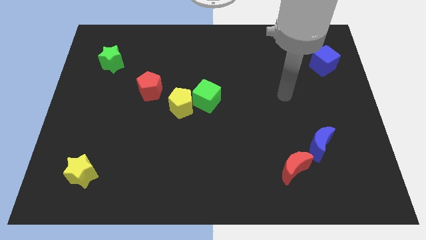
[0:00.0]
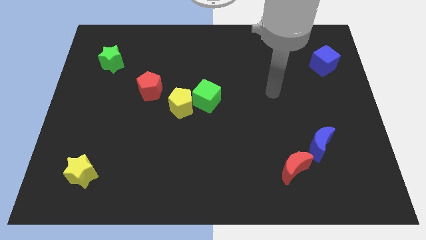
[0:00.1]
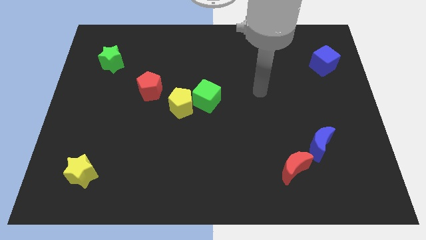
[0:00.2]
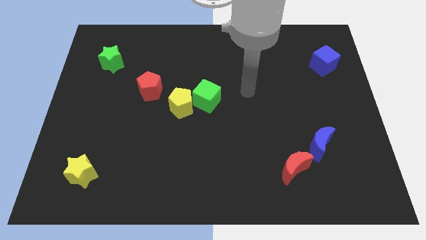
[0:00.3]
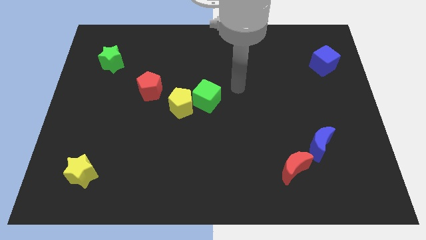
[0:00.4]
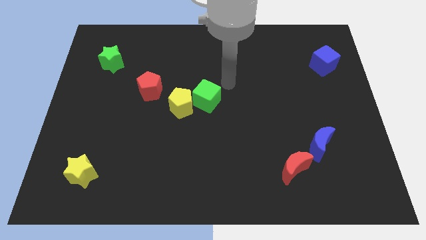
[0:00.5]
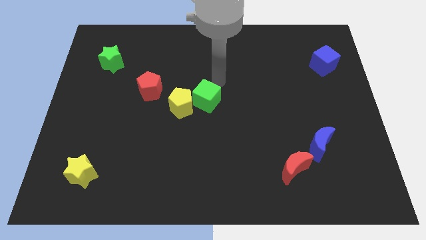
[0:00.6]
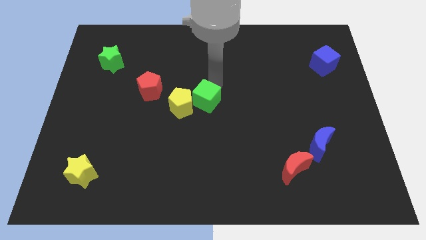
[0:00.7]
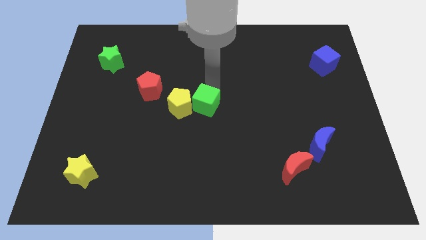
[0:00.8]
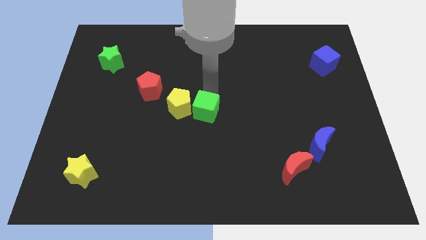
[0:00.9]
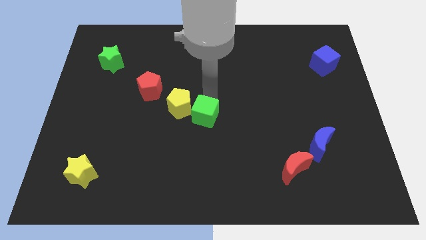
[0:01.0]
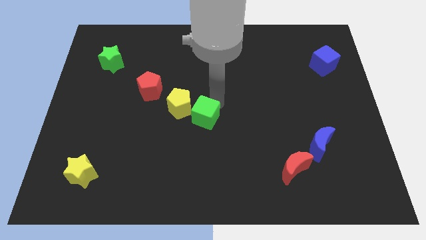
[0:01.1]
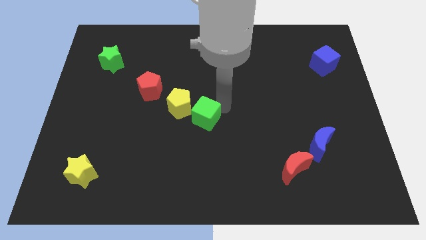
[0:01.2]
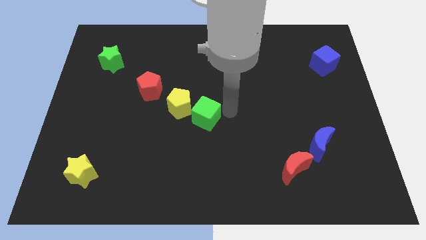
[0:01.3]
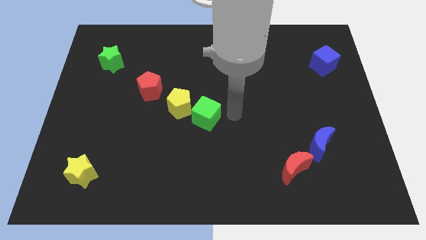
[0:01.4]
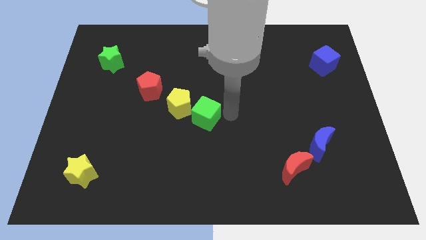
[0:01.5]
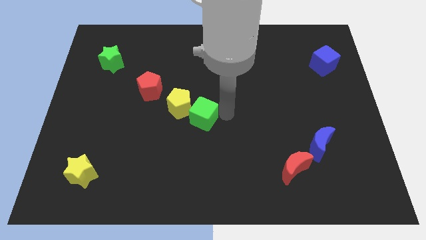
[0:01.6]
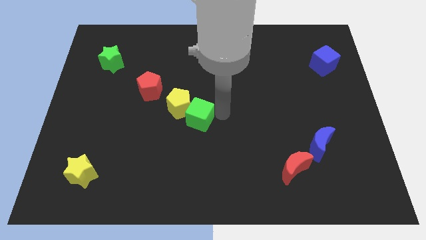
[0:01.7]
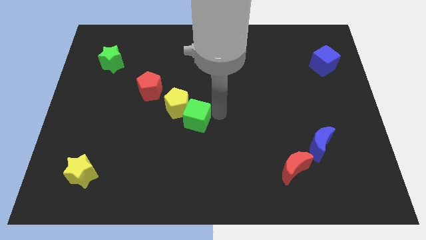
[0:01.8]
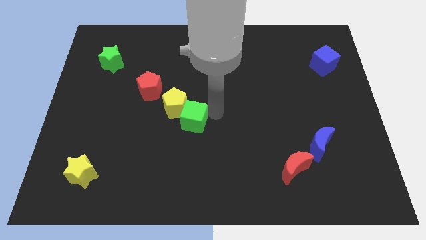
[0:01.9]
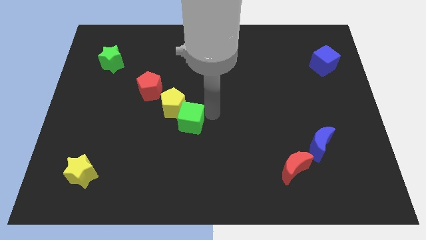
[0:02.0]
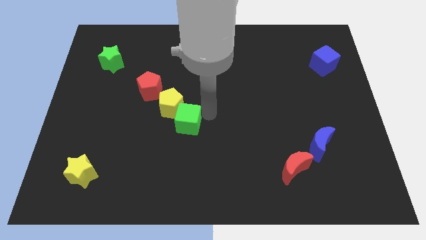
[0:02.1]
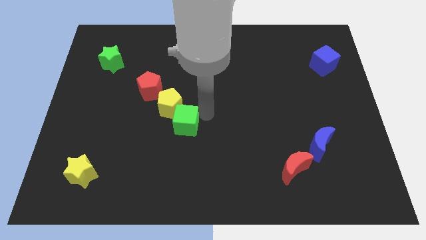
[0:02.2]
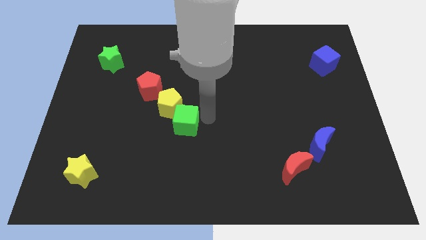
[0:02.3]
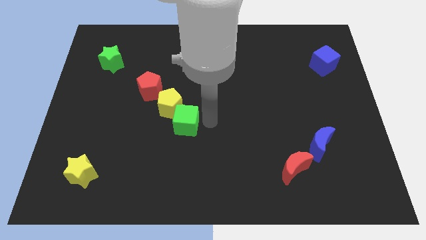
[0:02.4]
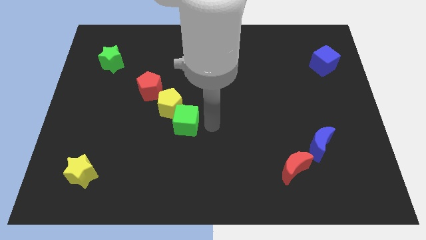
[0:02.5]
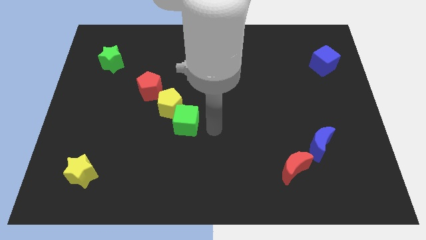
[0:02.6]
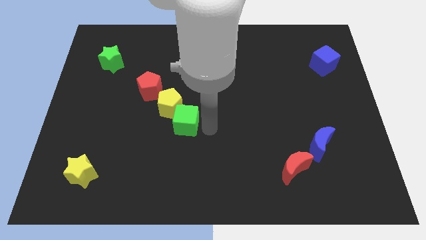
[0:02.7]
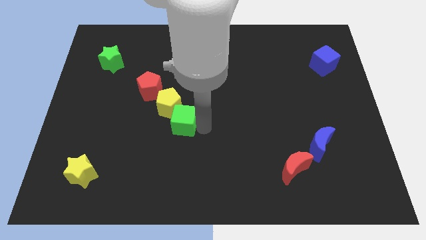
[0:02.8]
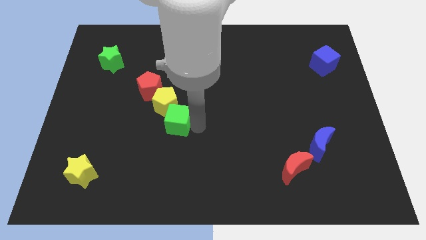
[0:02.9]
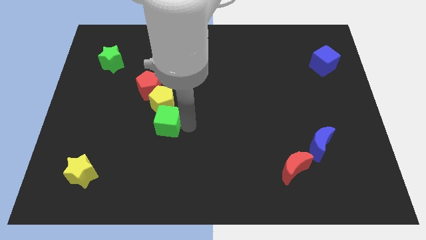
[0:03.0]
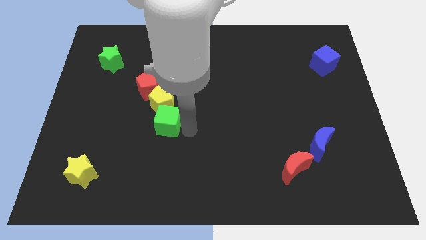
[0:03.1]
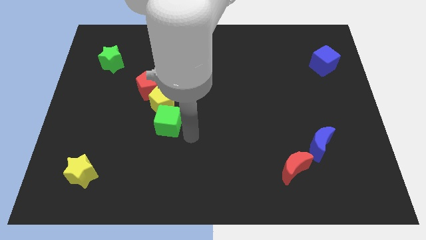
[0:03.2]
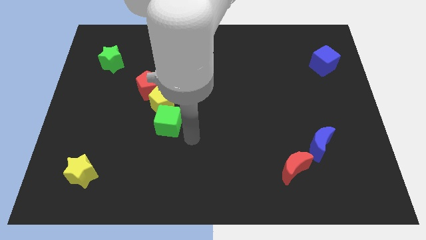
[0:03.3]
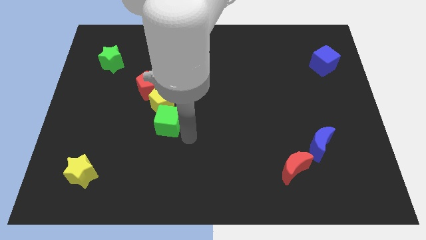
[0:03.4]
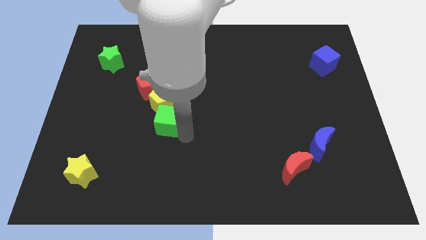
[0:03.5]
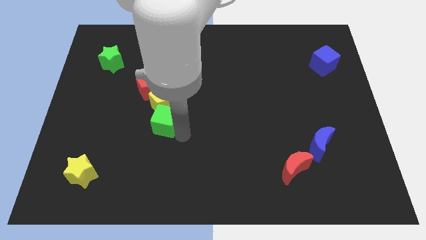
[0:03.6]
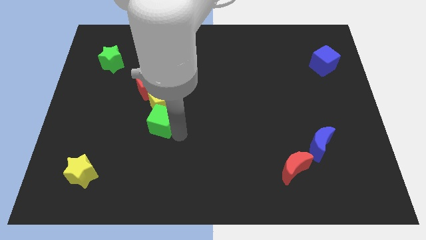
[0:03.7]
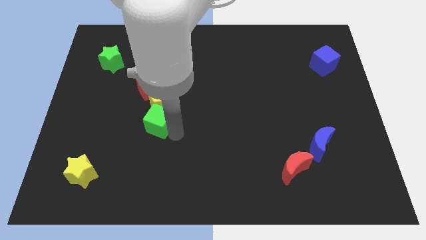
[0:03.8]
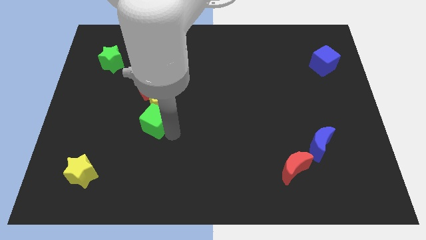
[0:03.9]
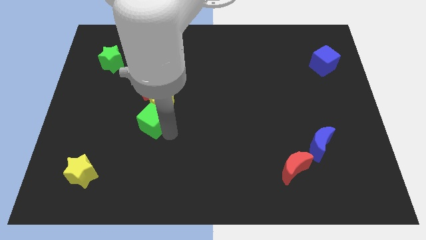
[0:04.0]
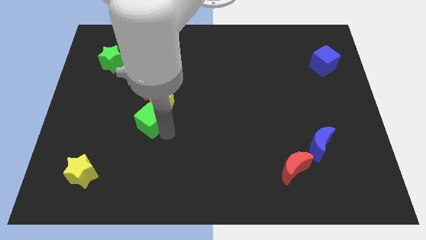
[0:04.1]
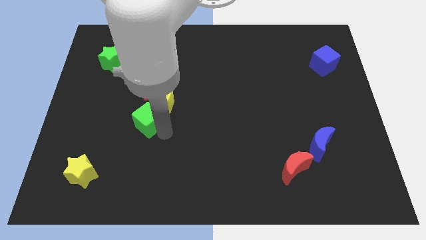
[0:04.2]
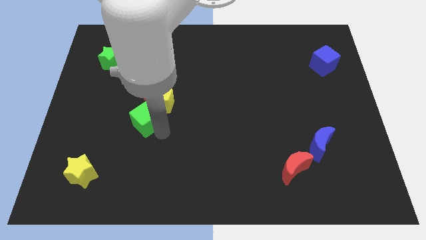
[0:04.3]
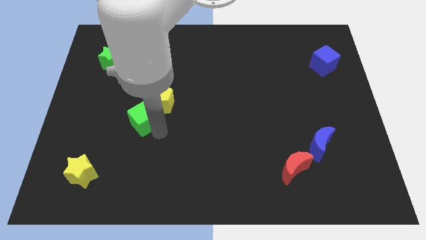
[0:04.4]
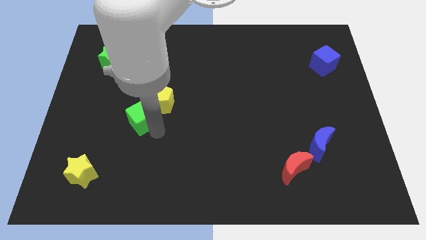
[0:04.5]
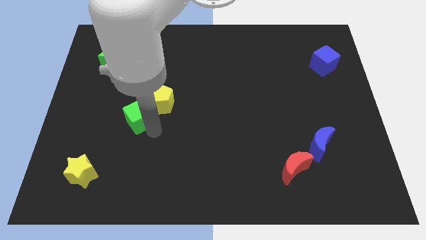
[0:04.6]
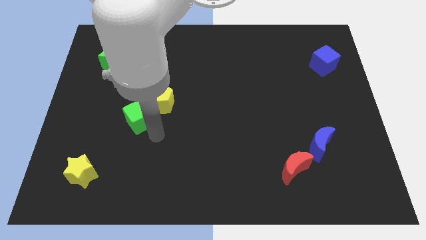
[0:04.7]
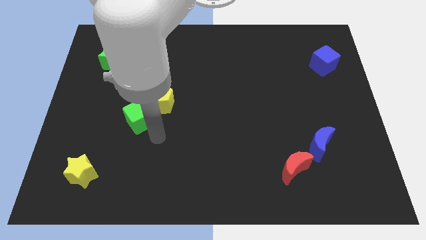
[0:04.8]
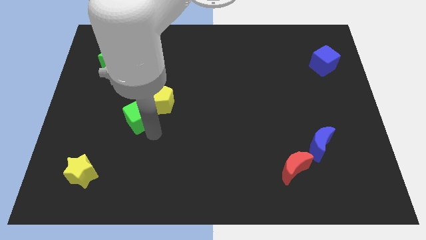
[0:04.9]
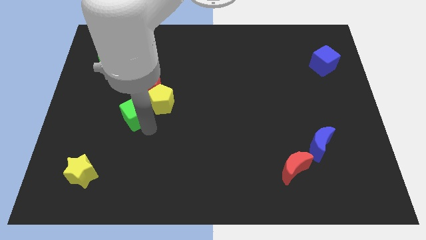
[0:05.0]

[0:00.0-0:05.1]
push the green cube to the bottom left of the red pentagon

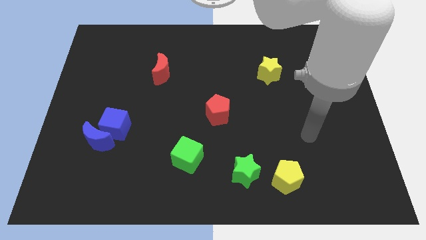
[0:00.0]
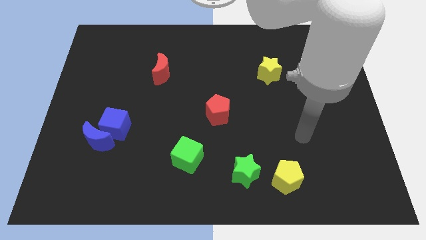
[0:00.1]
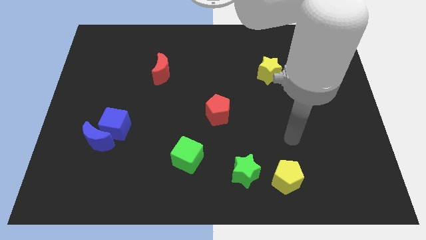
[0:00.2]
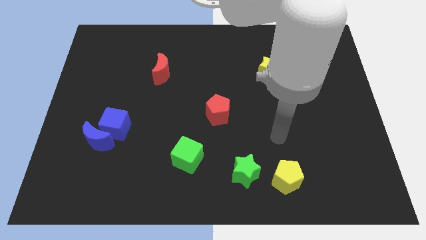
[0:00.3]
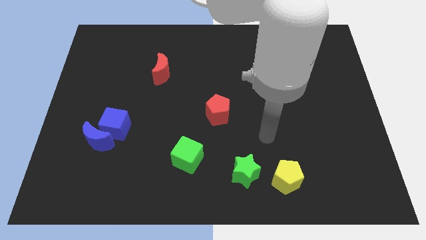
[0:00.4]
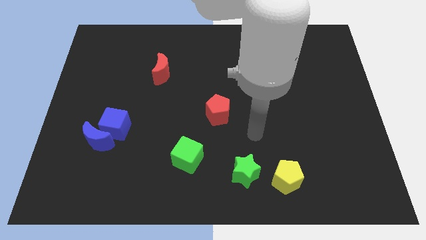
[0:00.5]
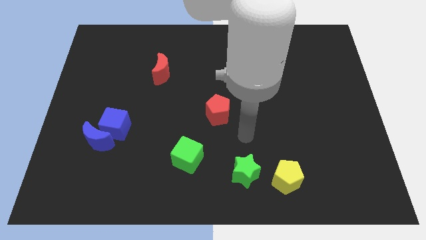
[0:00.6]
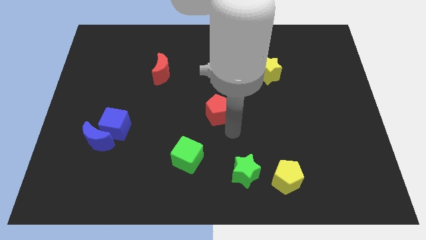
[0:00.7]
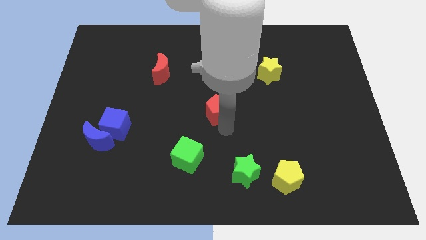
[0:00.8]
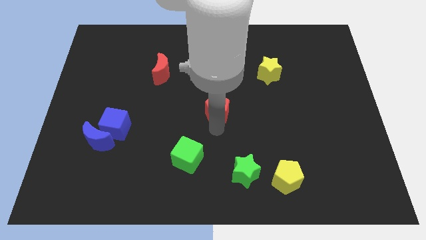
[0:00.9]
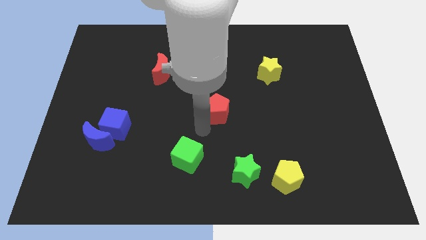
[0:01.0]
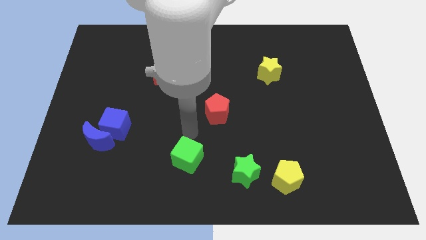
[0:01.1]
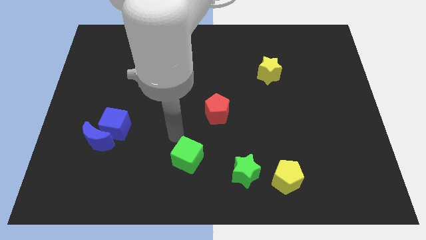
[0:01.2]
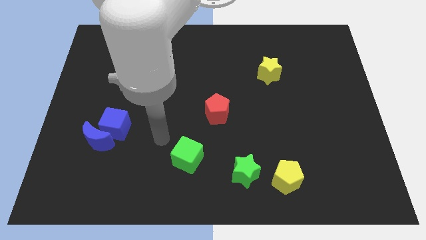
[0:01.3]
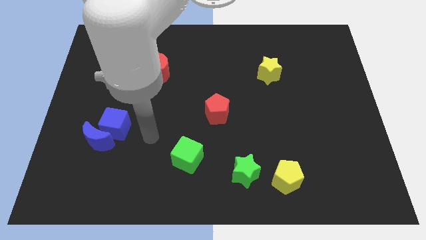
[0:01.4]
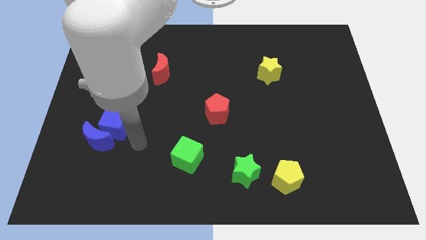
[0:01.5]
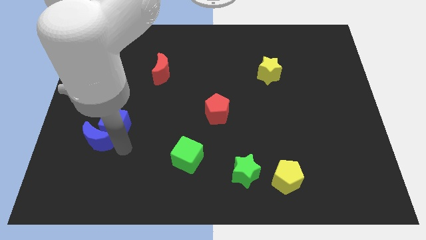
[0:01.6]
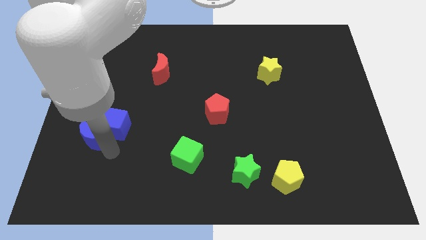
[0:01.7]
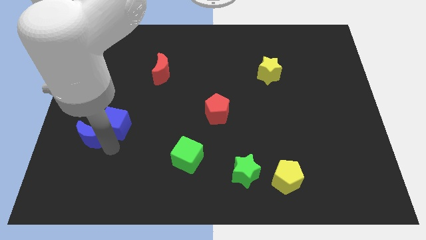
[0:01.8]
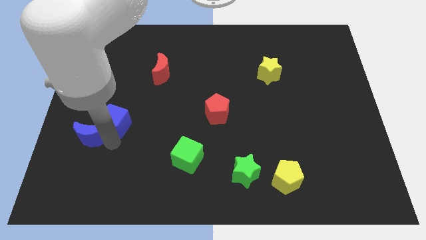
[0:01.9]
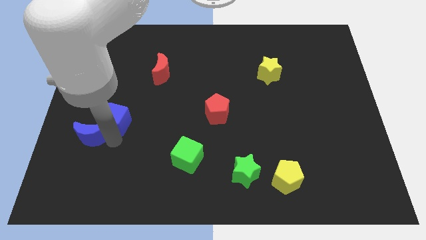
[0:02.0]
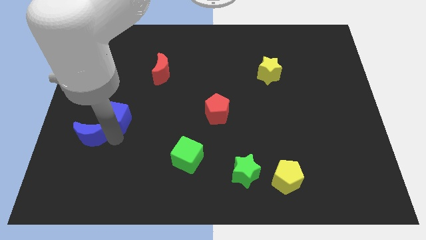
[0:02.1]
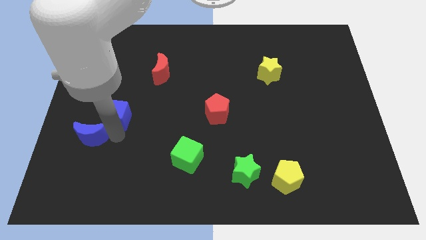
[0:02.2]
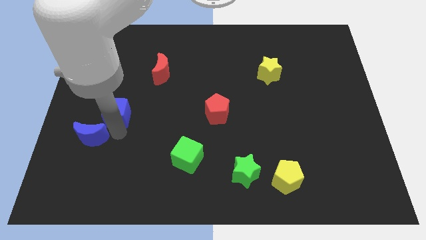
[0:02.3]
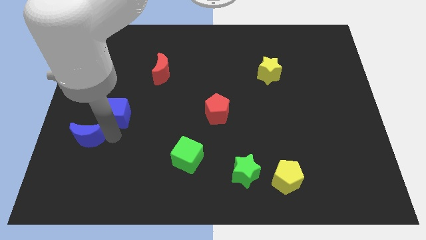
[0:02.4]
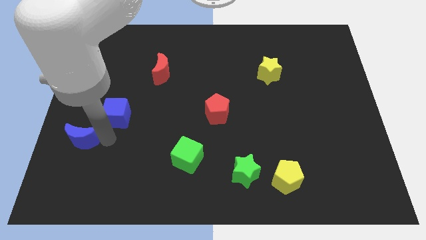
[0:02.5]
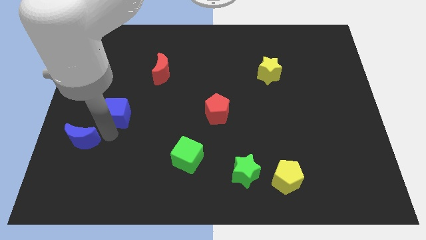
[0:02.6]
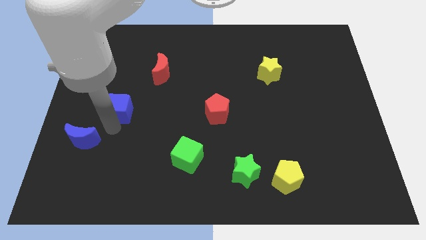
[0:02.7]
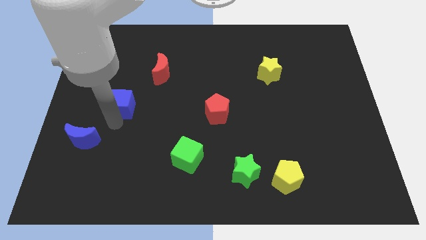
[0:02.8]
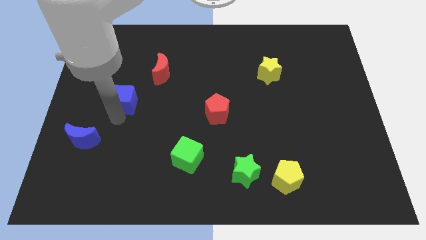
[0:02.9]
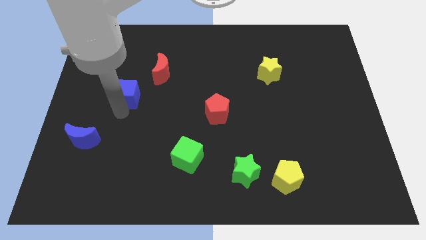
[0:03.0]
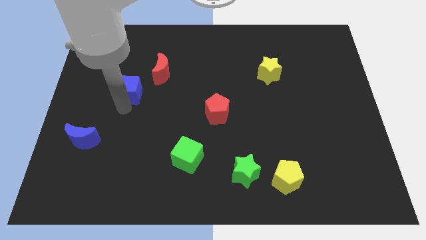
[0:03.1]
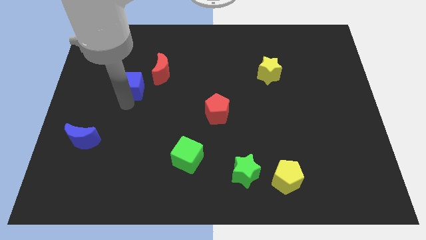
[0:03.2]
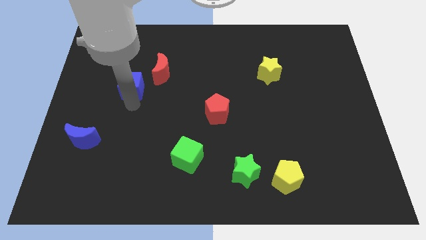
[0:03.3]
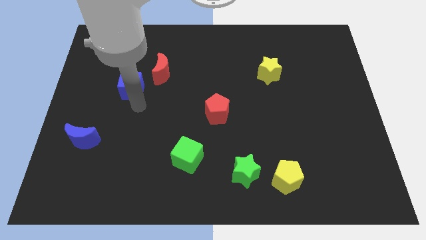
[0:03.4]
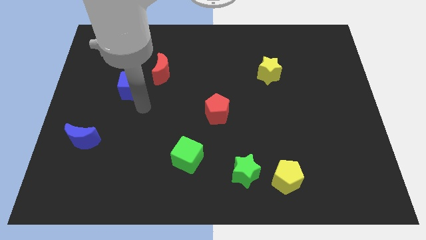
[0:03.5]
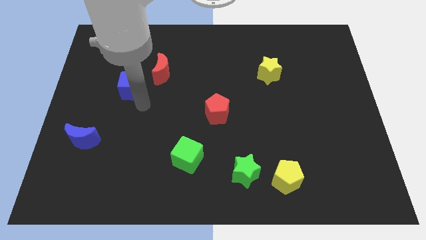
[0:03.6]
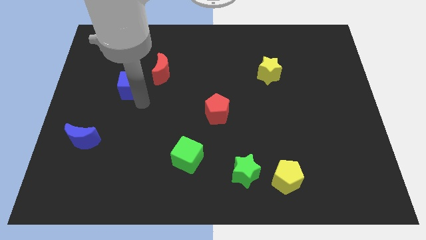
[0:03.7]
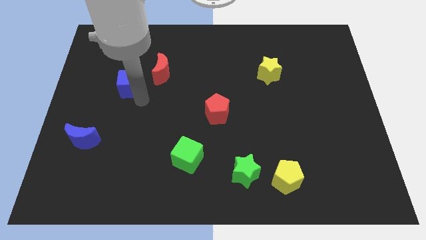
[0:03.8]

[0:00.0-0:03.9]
move the blue cube just left of the red moon
